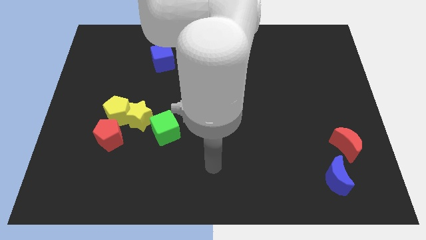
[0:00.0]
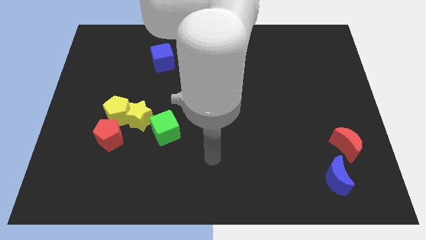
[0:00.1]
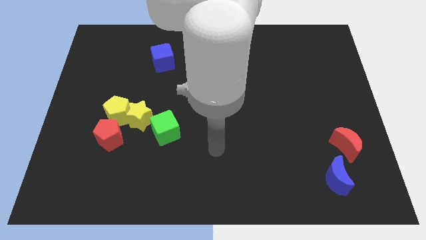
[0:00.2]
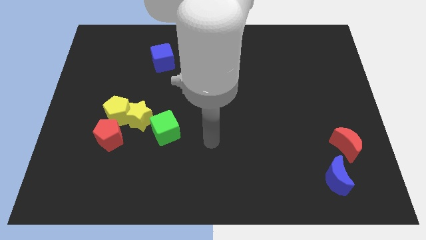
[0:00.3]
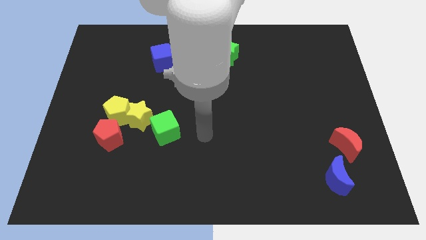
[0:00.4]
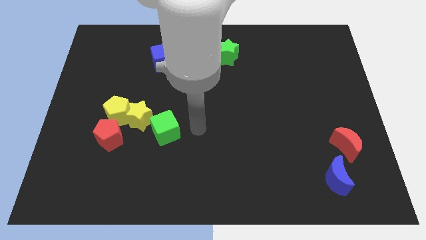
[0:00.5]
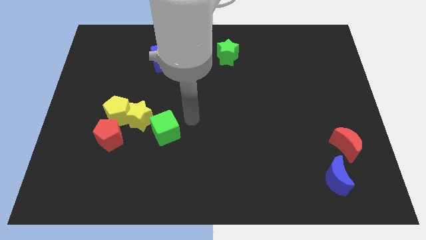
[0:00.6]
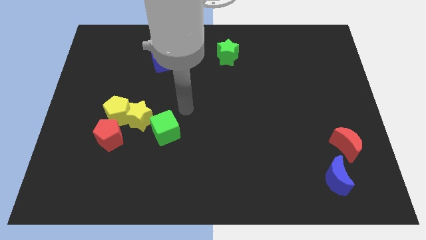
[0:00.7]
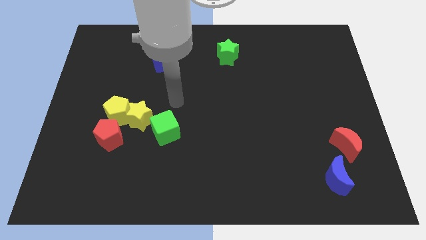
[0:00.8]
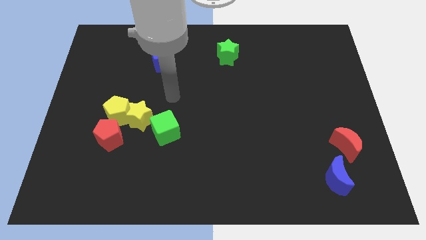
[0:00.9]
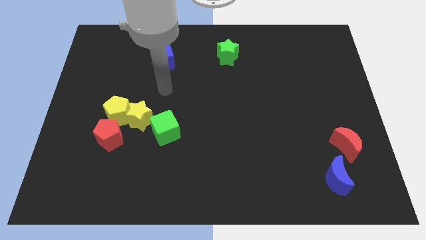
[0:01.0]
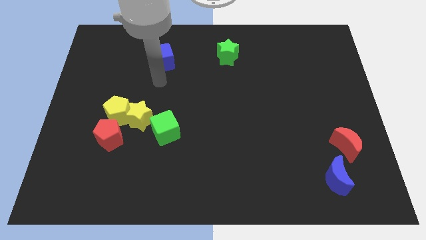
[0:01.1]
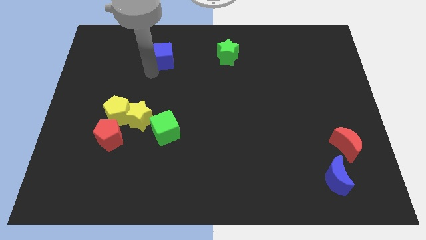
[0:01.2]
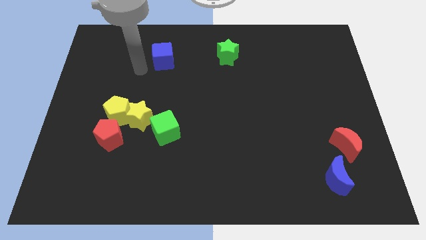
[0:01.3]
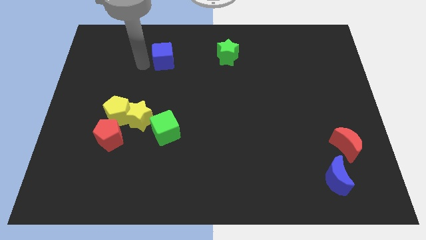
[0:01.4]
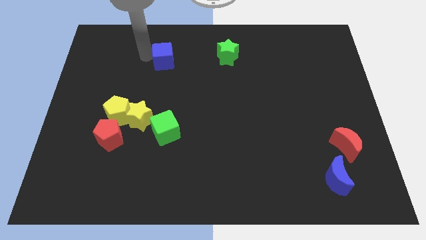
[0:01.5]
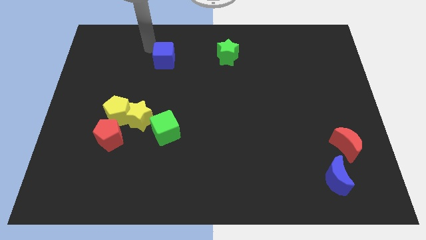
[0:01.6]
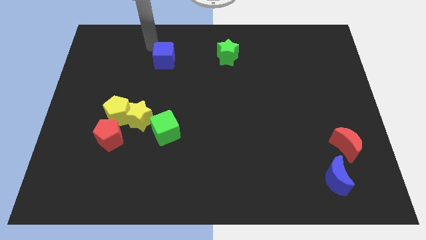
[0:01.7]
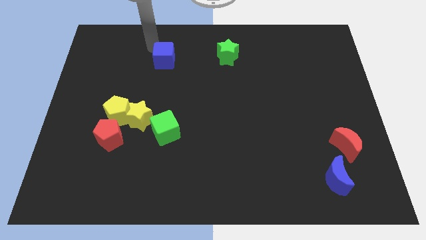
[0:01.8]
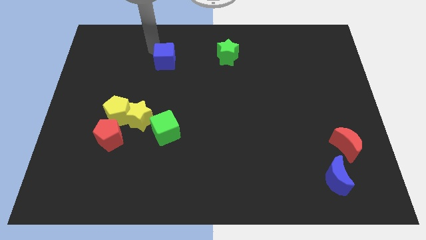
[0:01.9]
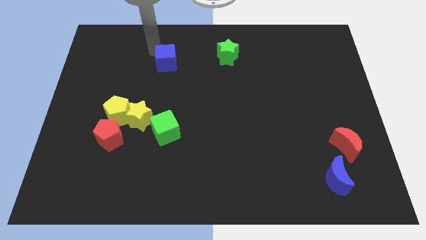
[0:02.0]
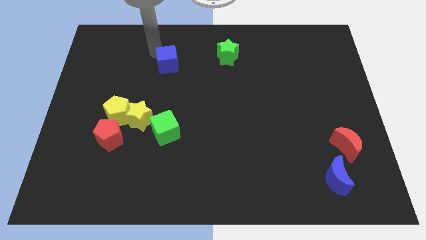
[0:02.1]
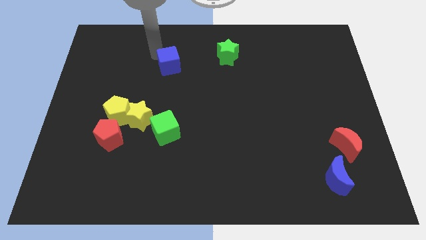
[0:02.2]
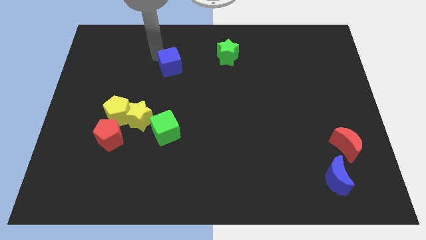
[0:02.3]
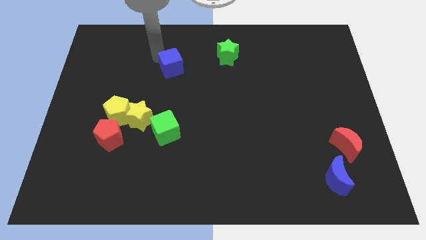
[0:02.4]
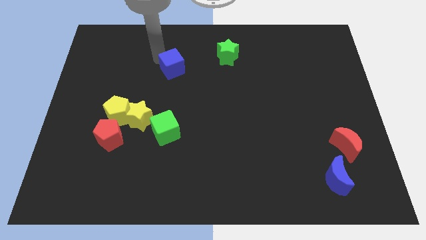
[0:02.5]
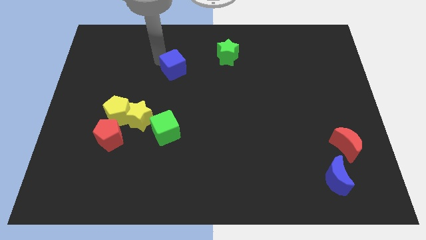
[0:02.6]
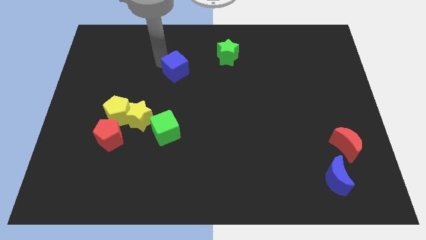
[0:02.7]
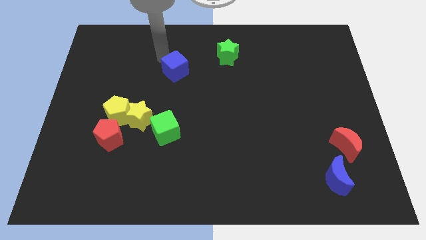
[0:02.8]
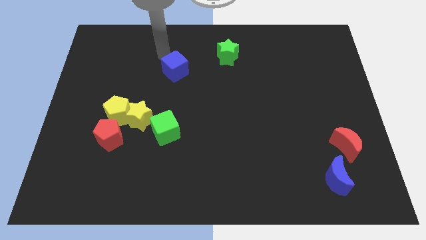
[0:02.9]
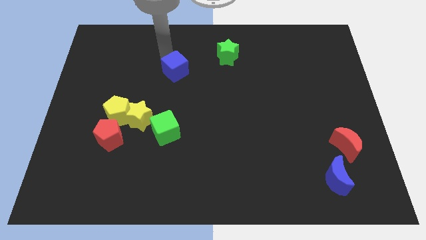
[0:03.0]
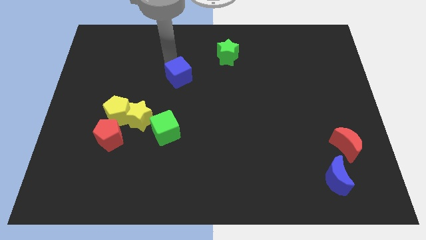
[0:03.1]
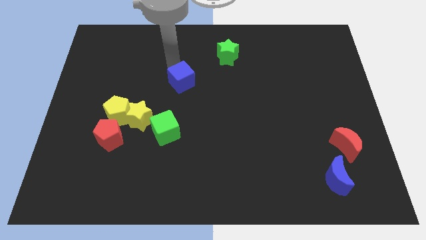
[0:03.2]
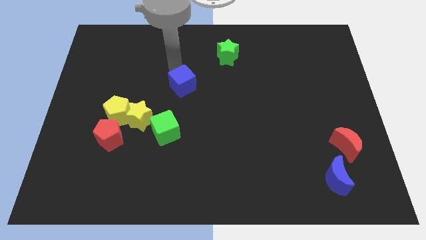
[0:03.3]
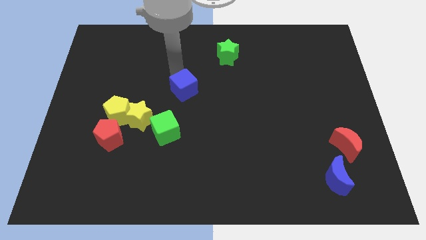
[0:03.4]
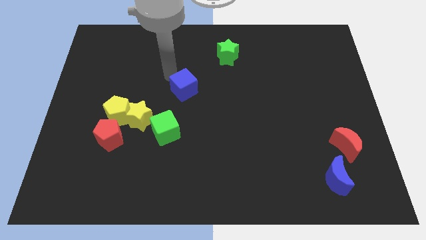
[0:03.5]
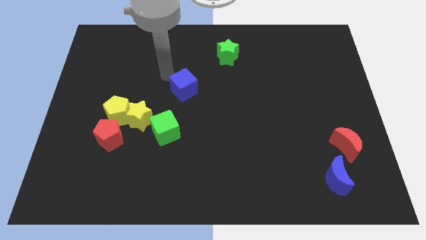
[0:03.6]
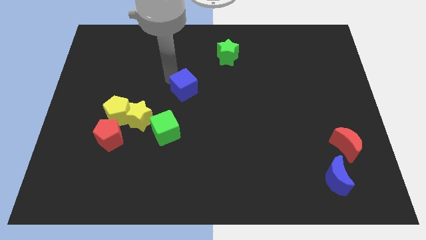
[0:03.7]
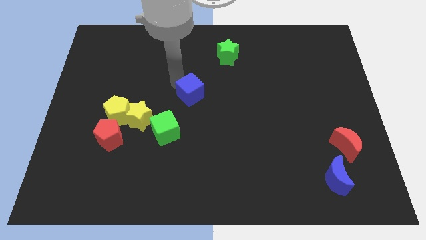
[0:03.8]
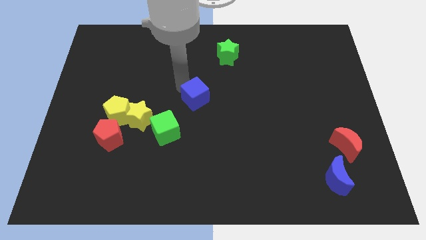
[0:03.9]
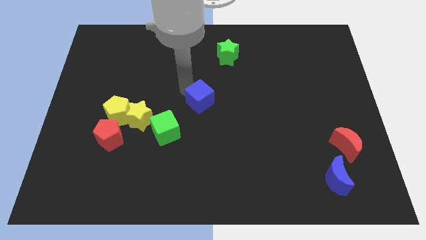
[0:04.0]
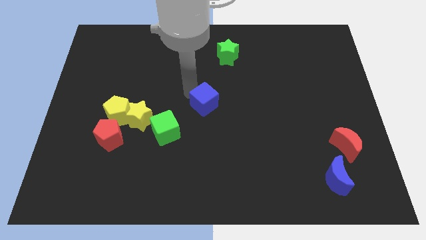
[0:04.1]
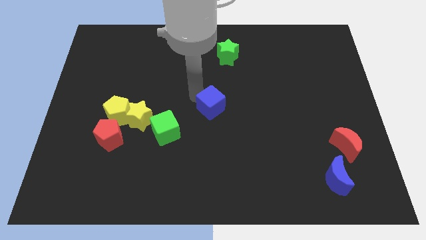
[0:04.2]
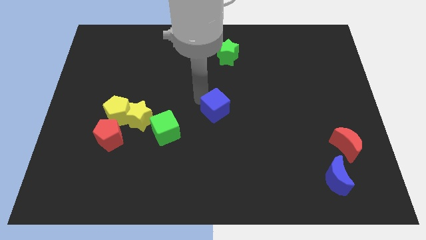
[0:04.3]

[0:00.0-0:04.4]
move the blue cube diagonally downwards and to the right

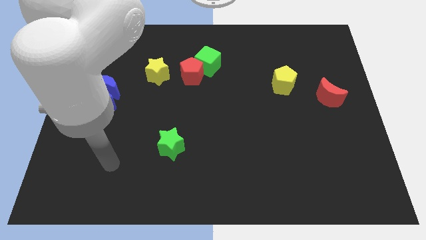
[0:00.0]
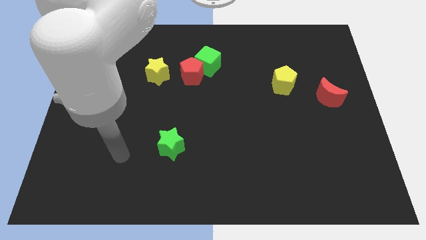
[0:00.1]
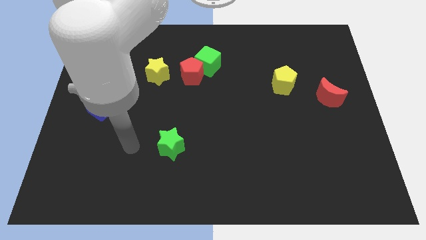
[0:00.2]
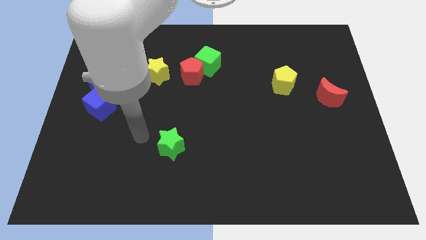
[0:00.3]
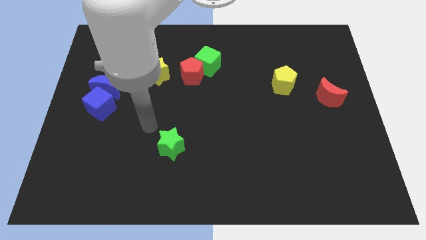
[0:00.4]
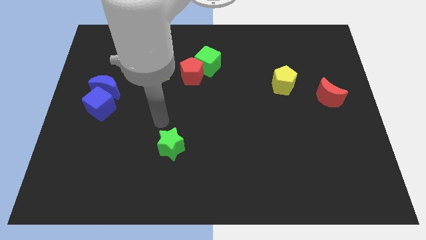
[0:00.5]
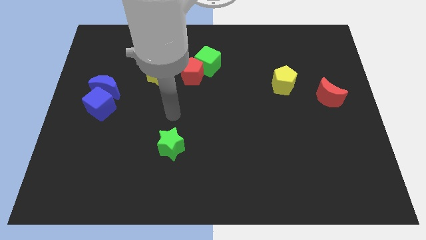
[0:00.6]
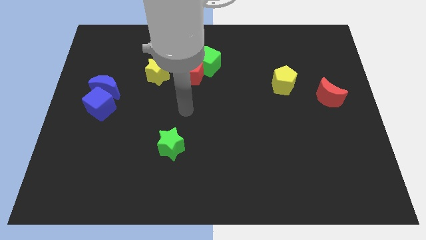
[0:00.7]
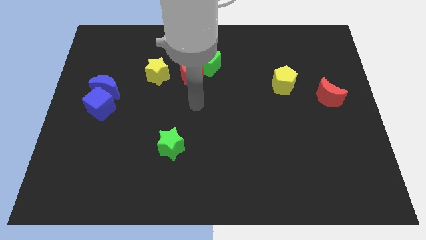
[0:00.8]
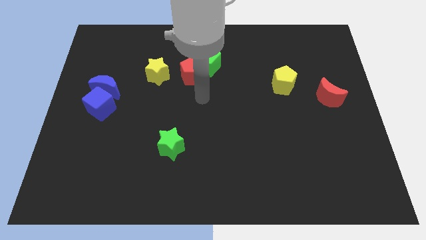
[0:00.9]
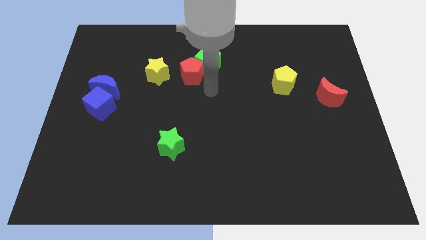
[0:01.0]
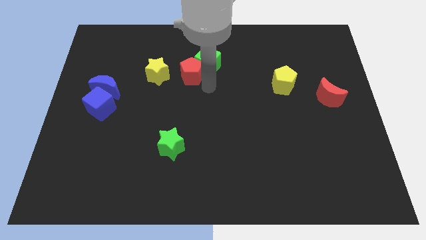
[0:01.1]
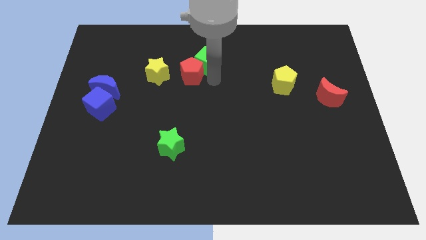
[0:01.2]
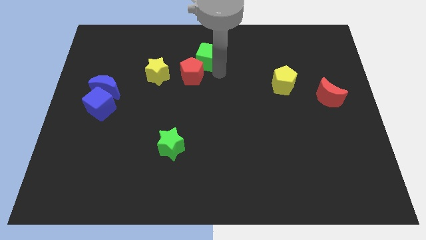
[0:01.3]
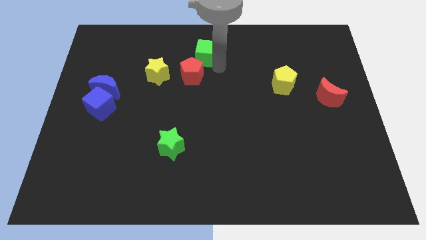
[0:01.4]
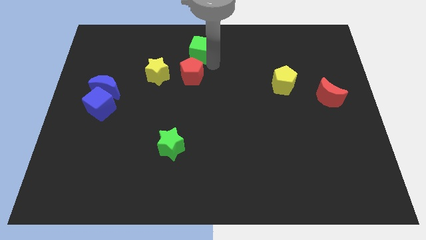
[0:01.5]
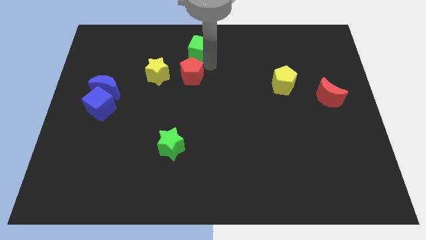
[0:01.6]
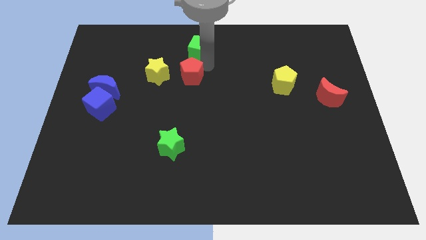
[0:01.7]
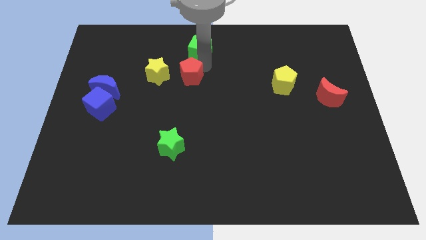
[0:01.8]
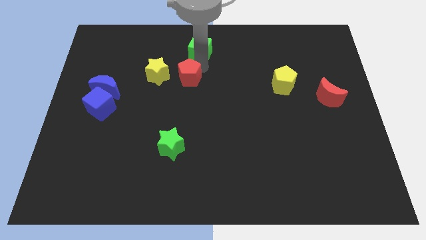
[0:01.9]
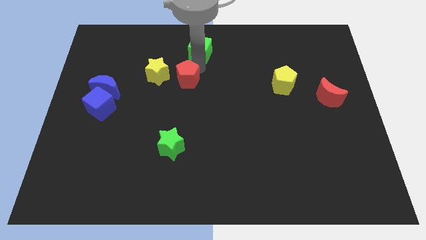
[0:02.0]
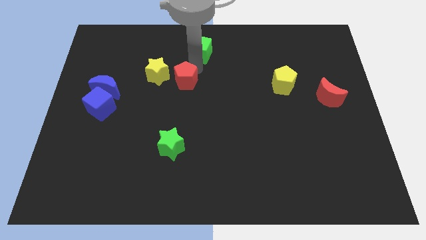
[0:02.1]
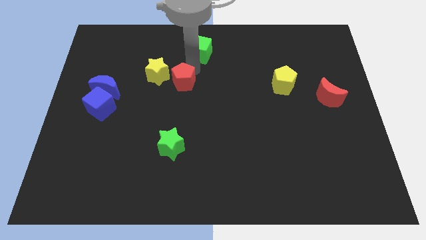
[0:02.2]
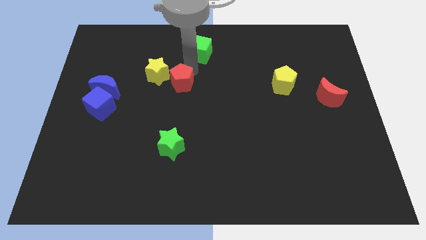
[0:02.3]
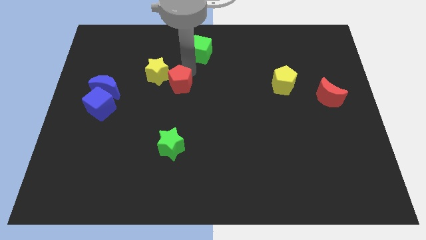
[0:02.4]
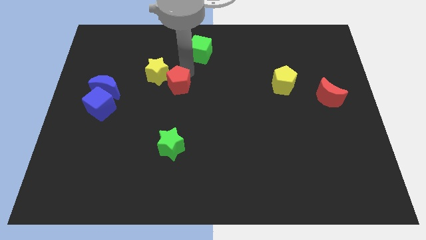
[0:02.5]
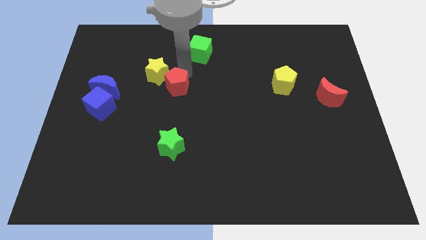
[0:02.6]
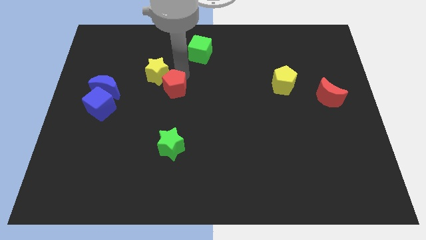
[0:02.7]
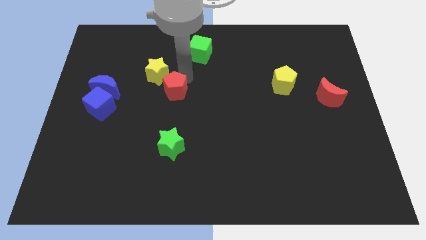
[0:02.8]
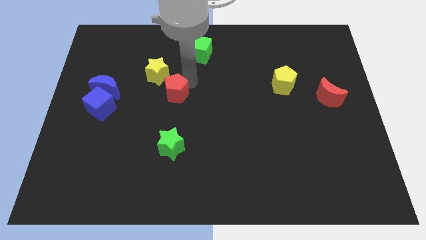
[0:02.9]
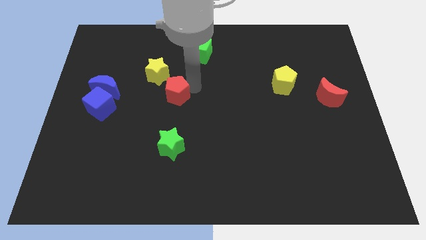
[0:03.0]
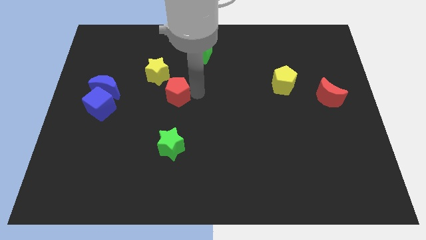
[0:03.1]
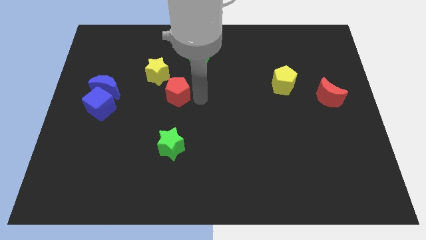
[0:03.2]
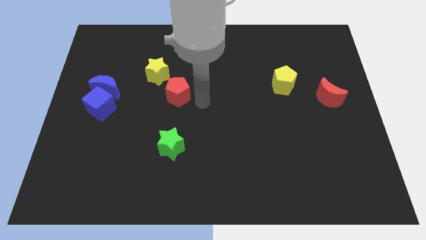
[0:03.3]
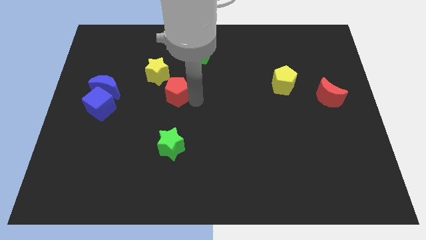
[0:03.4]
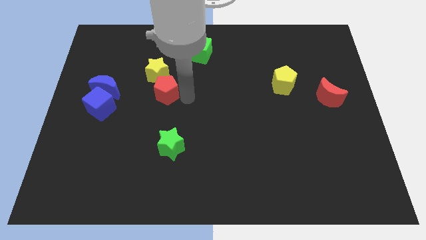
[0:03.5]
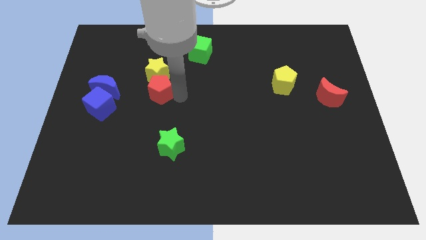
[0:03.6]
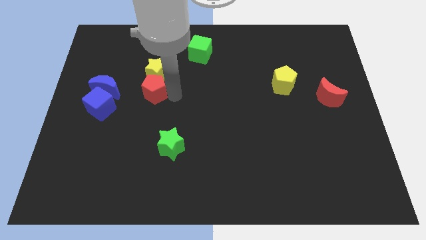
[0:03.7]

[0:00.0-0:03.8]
slightly slide the red pentagon to the left
